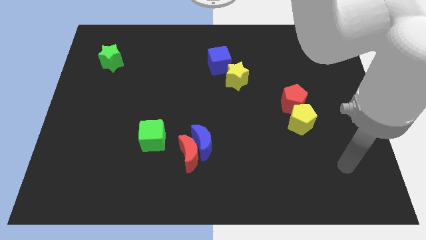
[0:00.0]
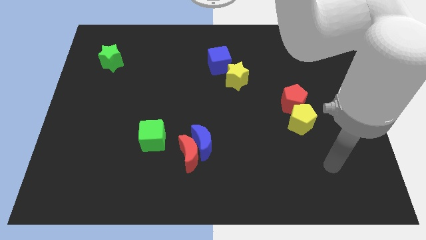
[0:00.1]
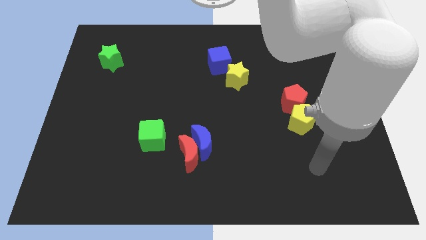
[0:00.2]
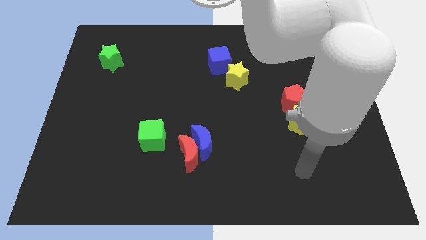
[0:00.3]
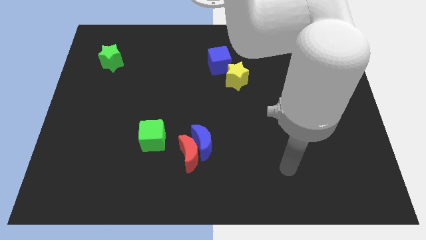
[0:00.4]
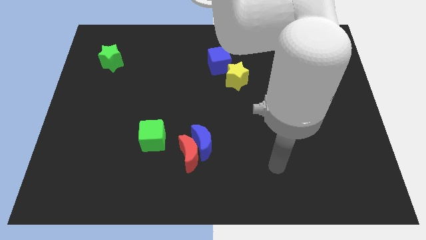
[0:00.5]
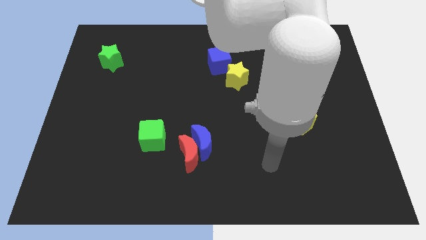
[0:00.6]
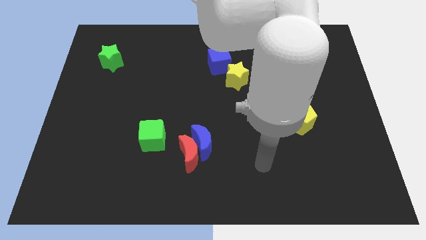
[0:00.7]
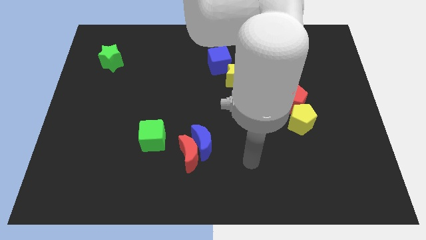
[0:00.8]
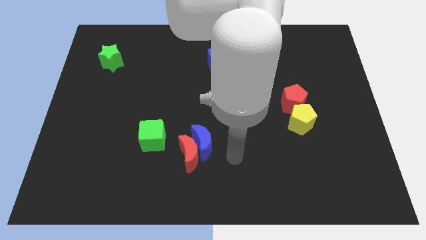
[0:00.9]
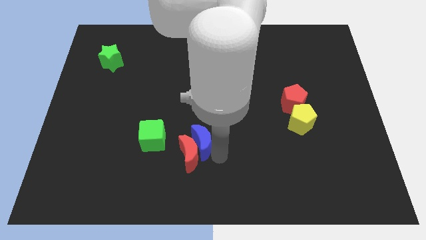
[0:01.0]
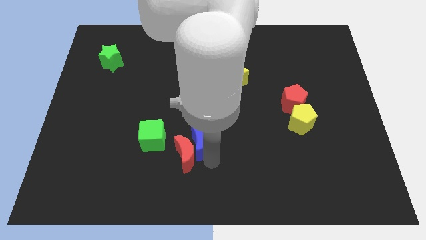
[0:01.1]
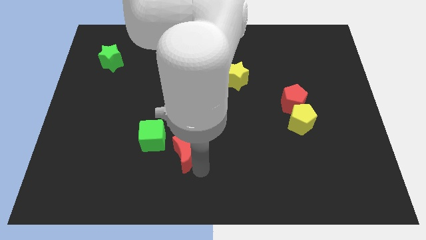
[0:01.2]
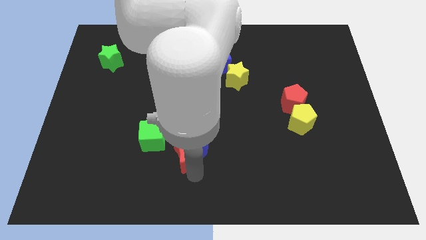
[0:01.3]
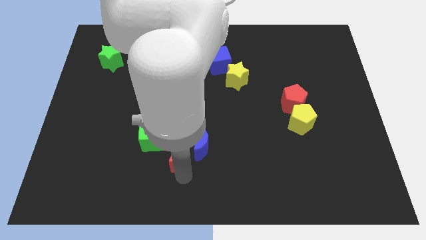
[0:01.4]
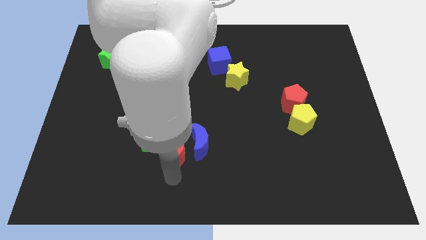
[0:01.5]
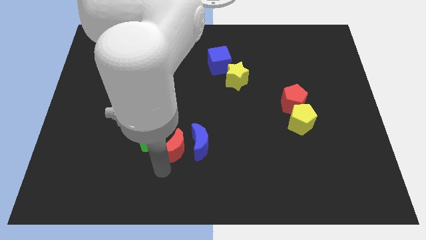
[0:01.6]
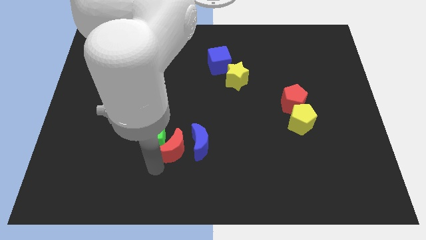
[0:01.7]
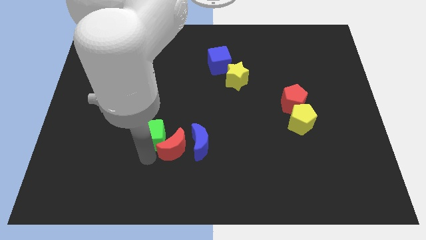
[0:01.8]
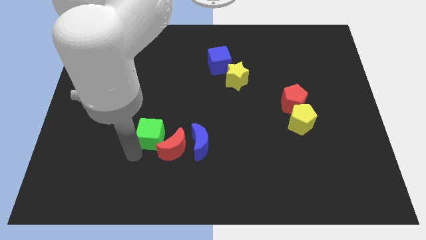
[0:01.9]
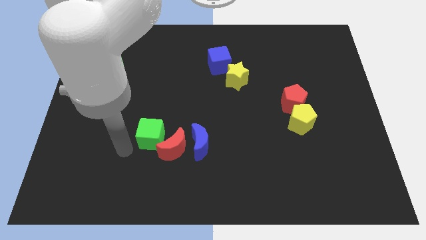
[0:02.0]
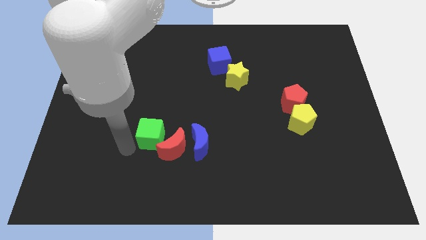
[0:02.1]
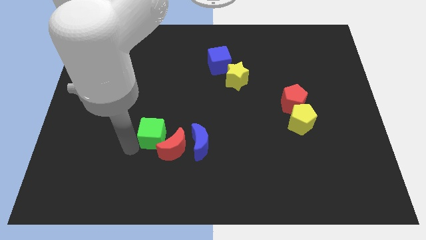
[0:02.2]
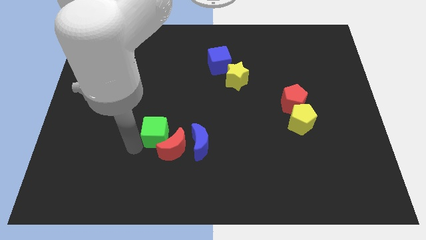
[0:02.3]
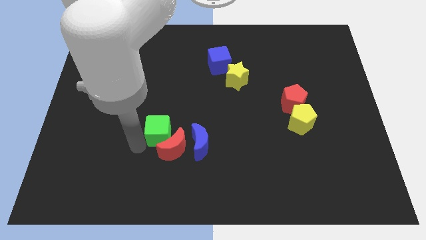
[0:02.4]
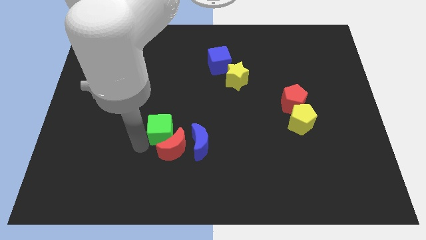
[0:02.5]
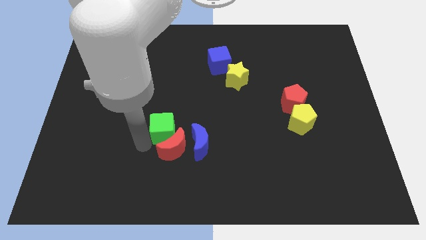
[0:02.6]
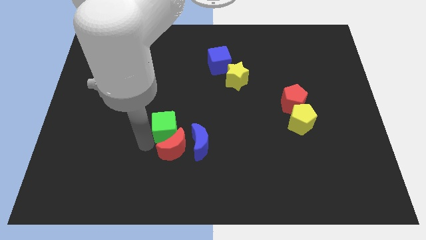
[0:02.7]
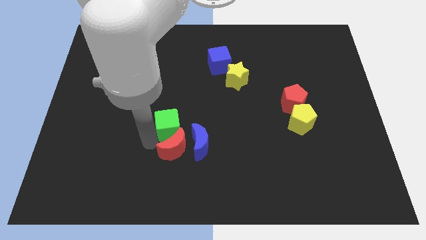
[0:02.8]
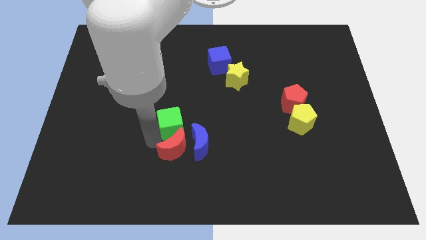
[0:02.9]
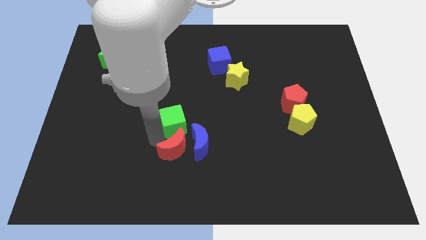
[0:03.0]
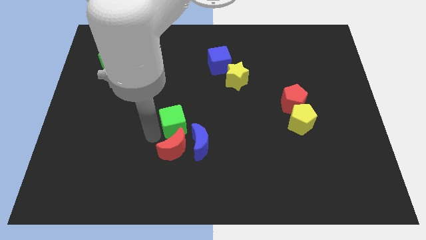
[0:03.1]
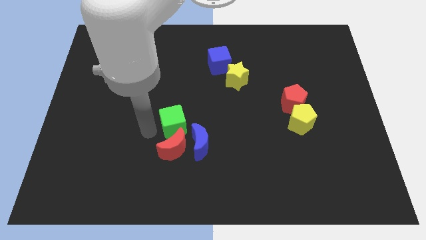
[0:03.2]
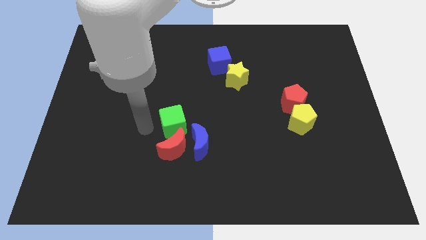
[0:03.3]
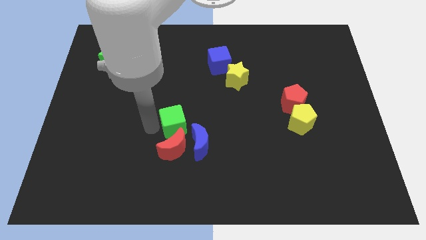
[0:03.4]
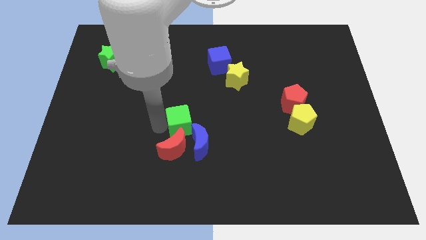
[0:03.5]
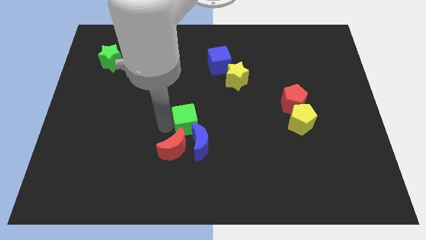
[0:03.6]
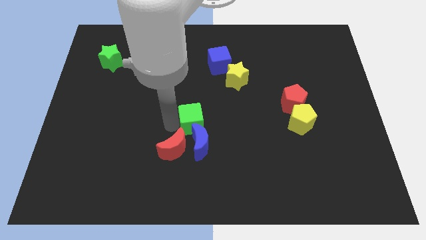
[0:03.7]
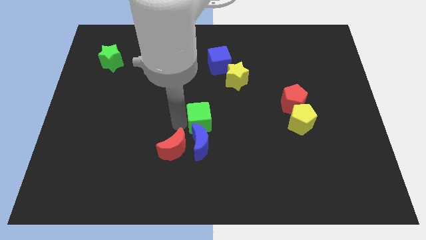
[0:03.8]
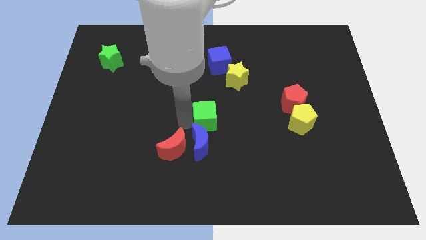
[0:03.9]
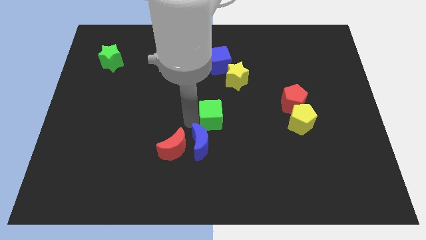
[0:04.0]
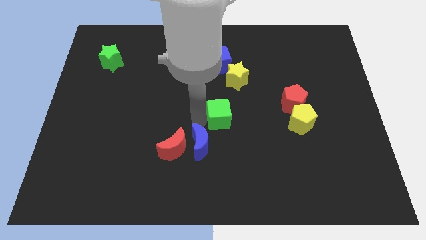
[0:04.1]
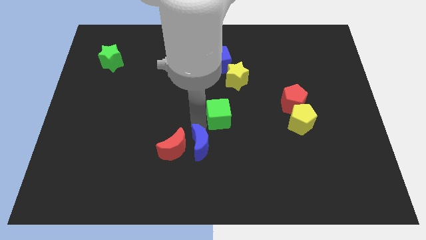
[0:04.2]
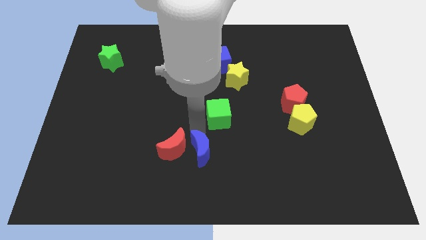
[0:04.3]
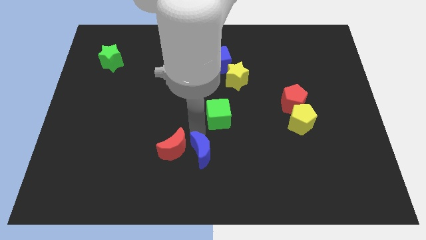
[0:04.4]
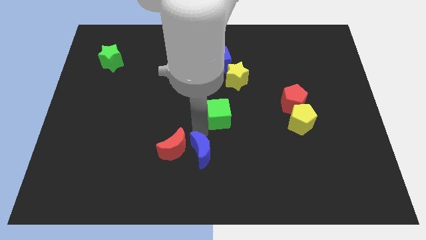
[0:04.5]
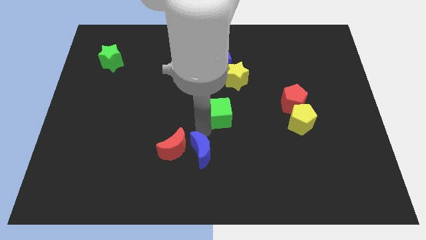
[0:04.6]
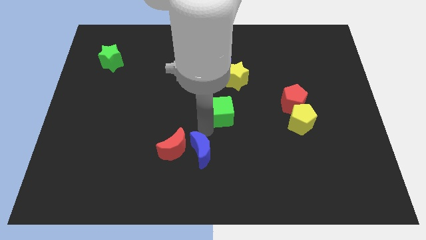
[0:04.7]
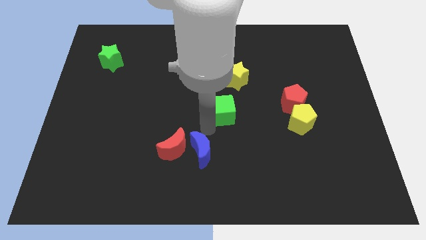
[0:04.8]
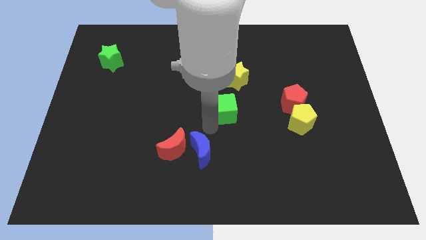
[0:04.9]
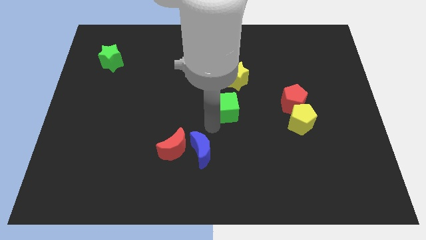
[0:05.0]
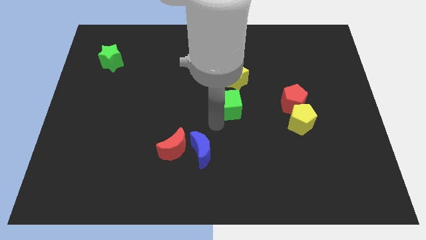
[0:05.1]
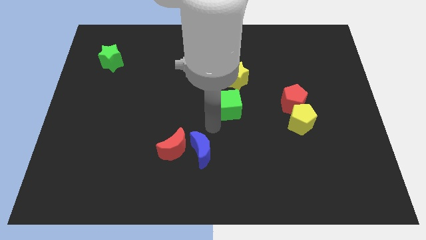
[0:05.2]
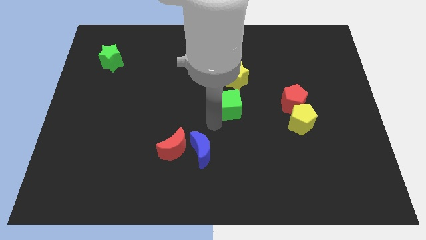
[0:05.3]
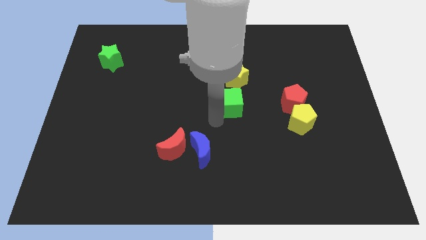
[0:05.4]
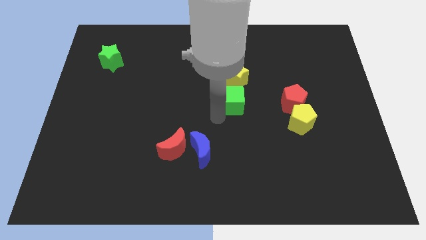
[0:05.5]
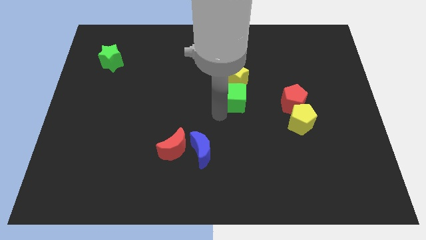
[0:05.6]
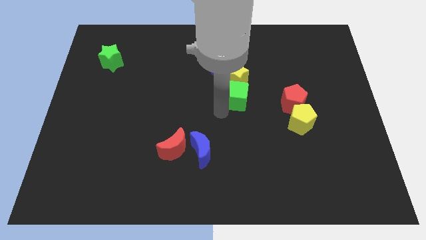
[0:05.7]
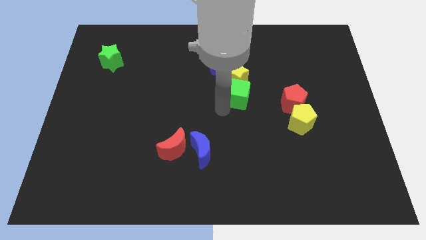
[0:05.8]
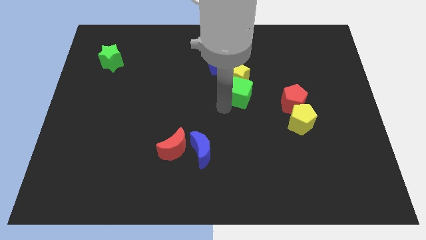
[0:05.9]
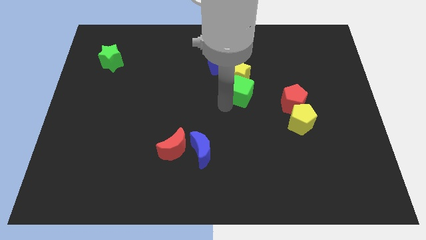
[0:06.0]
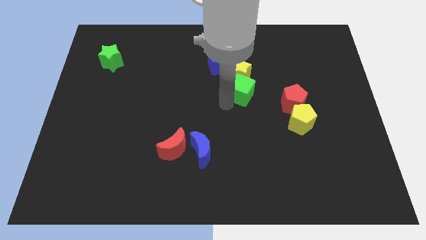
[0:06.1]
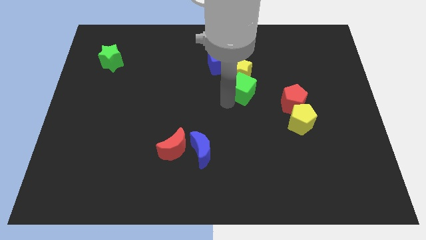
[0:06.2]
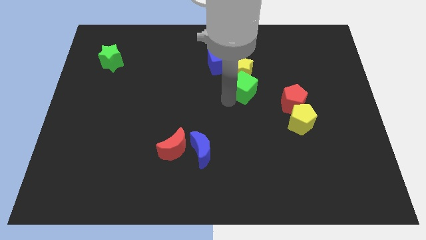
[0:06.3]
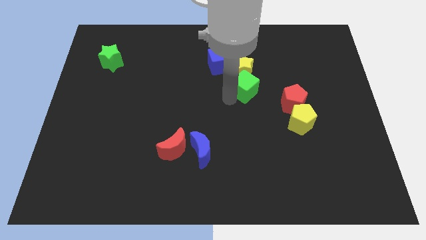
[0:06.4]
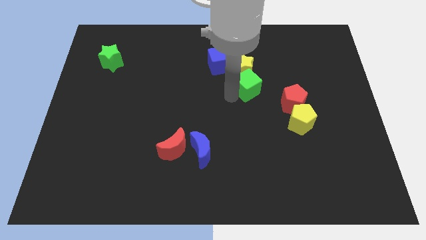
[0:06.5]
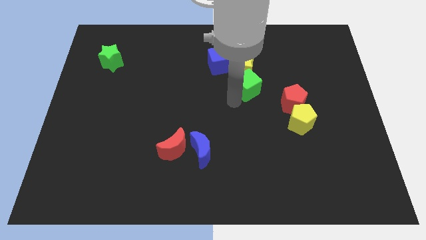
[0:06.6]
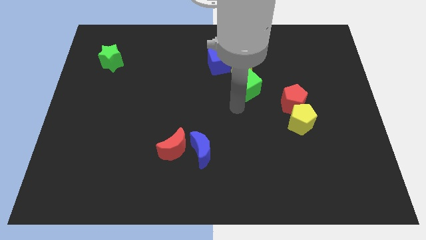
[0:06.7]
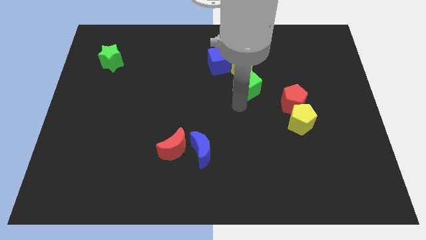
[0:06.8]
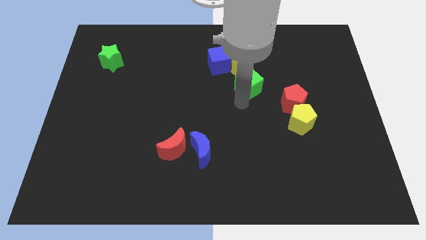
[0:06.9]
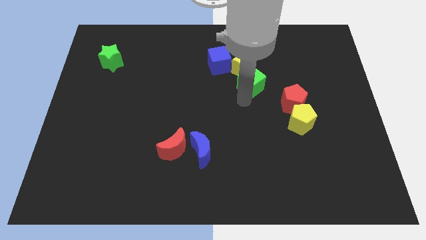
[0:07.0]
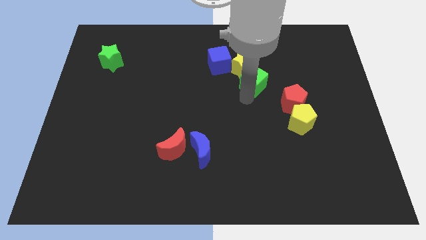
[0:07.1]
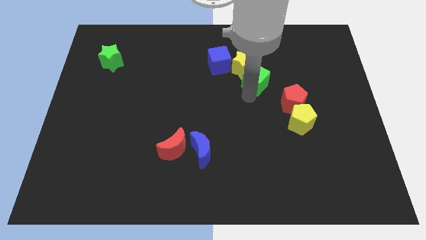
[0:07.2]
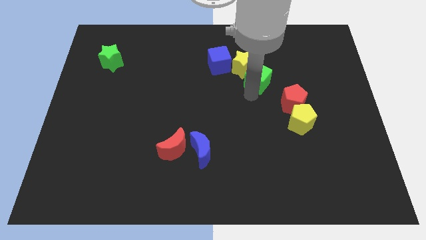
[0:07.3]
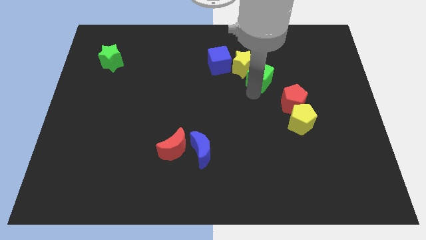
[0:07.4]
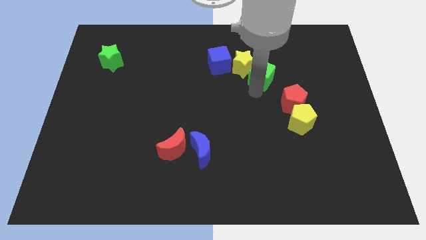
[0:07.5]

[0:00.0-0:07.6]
slide the green cube to the right of the blue cube
